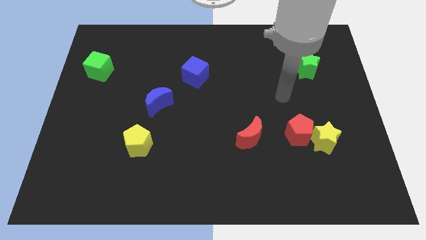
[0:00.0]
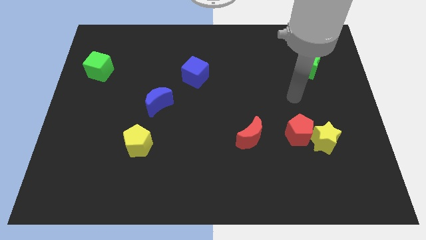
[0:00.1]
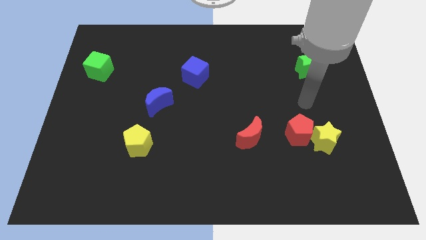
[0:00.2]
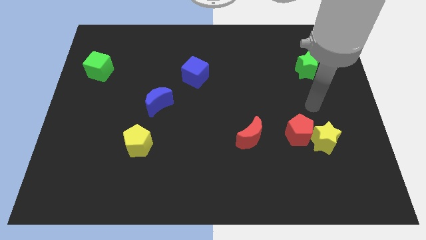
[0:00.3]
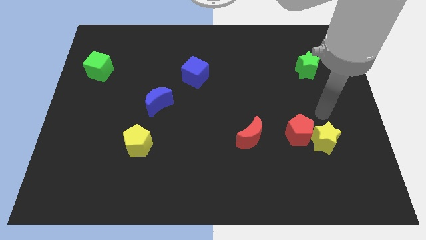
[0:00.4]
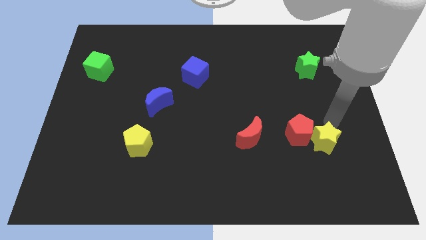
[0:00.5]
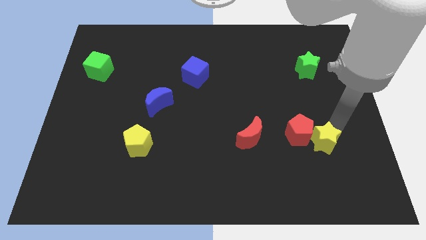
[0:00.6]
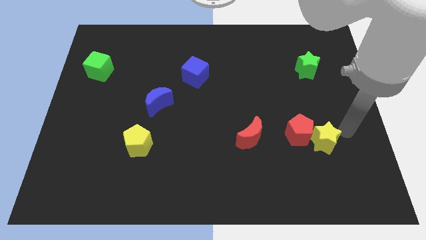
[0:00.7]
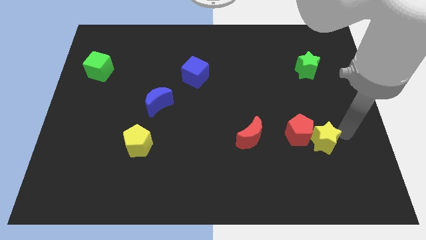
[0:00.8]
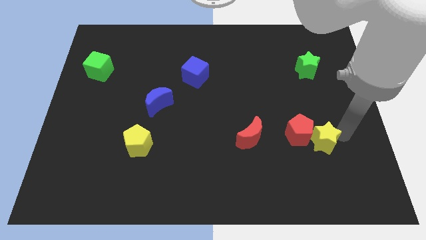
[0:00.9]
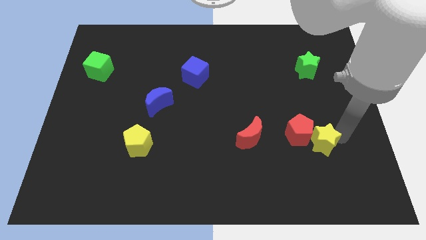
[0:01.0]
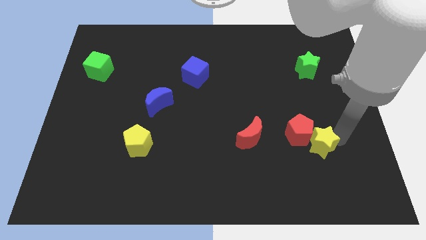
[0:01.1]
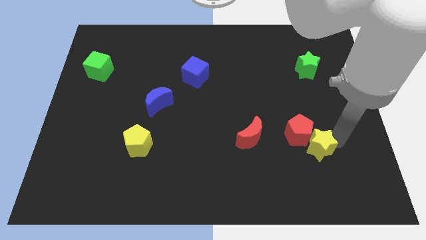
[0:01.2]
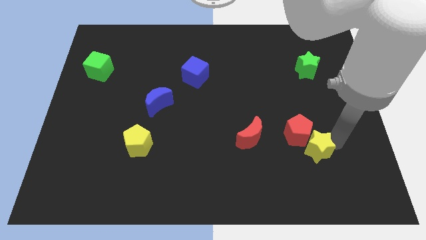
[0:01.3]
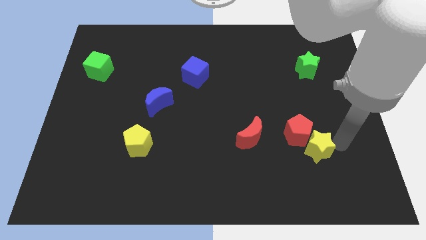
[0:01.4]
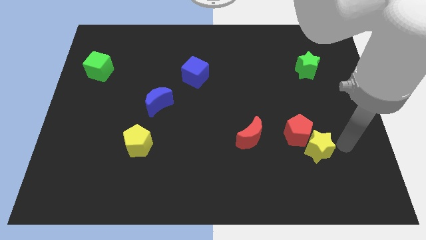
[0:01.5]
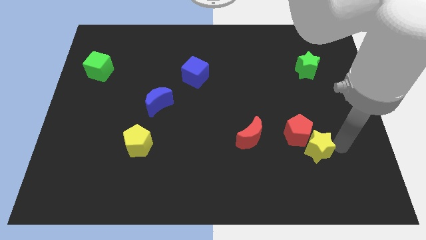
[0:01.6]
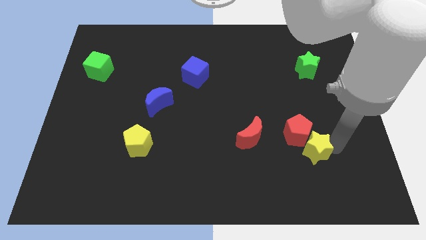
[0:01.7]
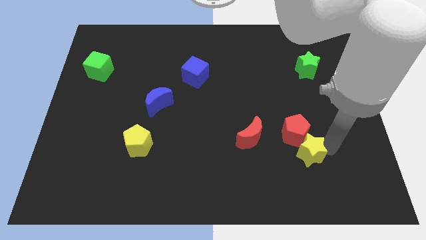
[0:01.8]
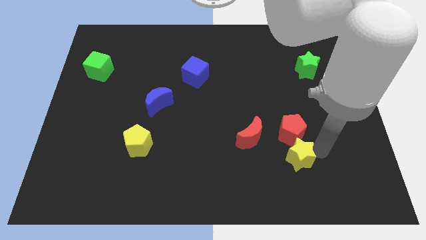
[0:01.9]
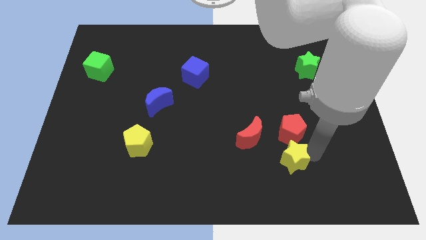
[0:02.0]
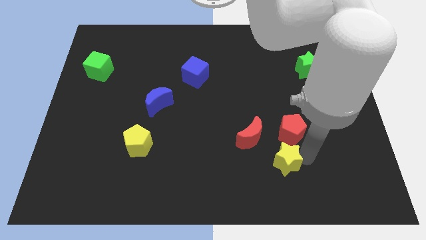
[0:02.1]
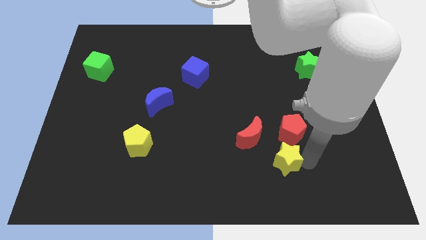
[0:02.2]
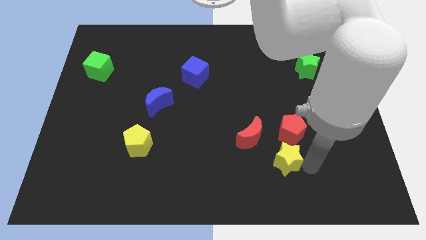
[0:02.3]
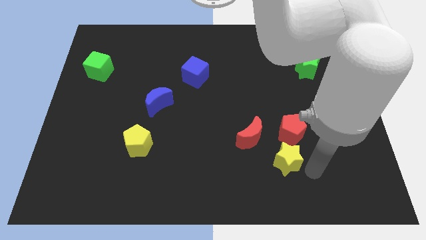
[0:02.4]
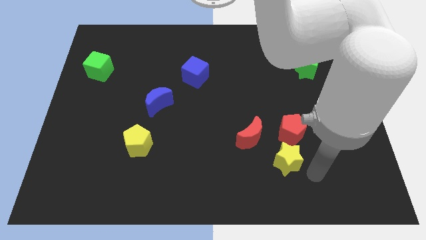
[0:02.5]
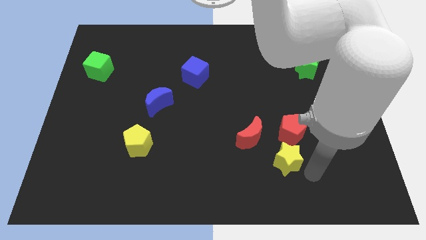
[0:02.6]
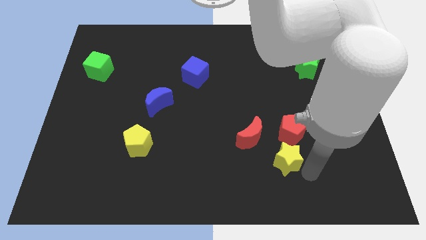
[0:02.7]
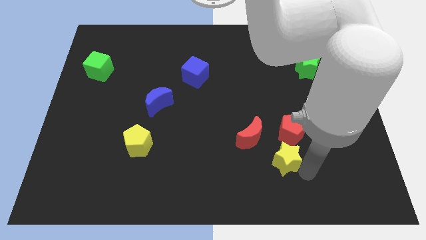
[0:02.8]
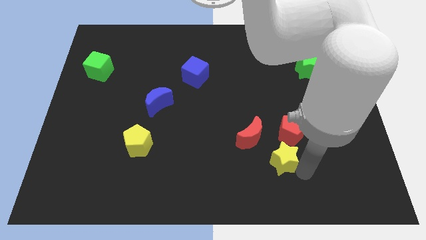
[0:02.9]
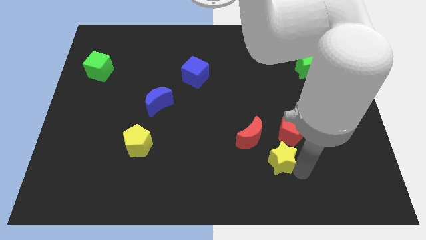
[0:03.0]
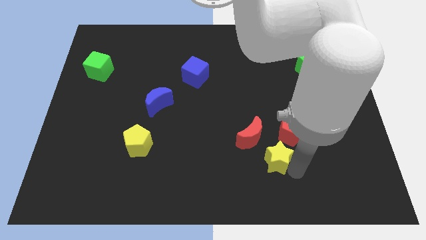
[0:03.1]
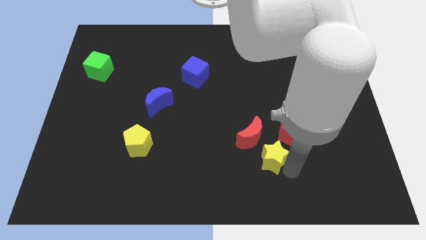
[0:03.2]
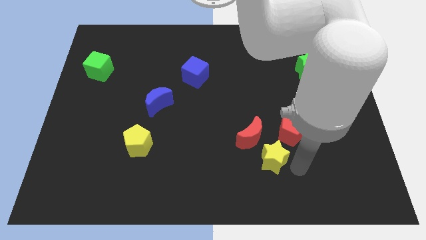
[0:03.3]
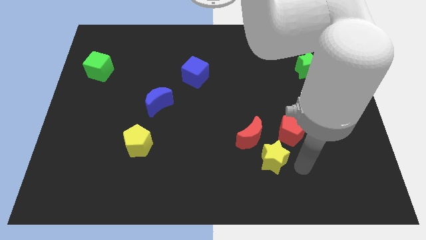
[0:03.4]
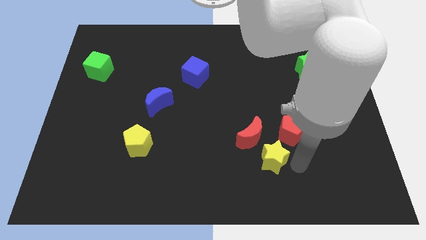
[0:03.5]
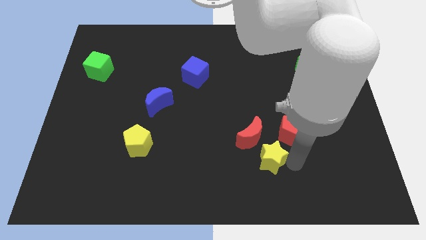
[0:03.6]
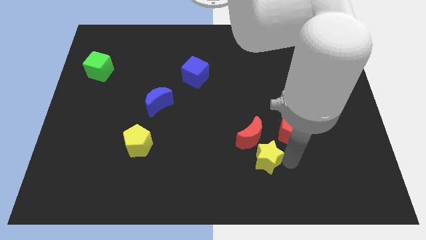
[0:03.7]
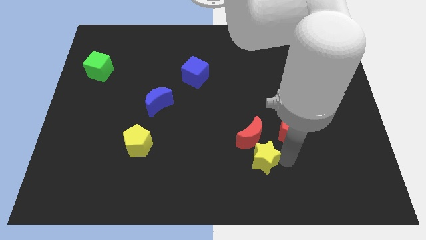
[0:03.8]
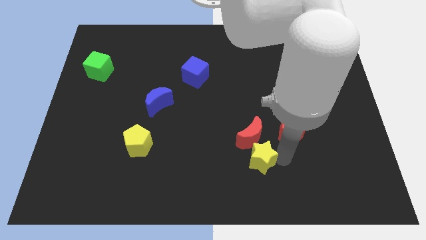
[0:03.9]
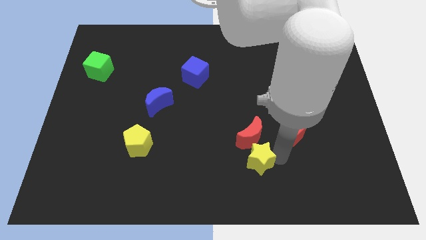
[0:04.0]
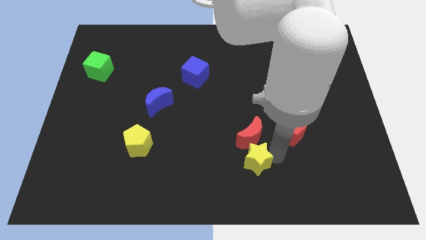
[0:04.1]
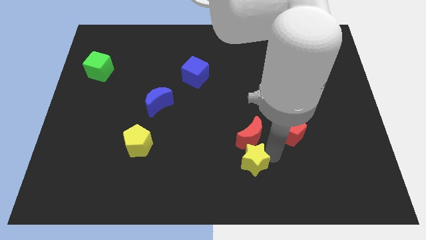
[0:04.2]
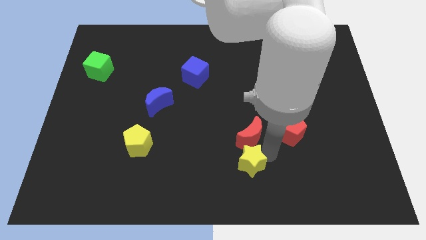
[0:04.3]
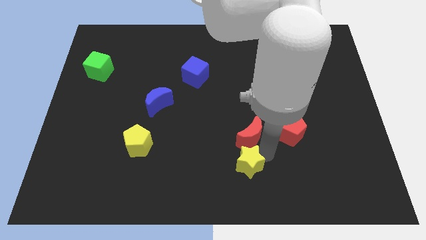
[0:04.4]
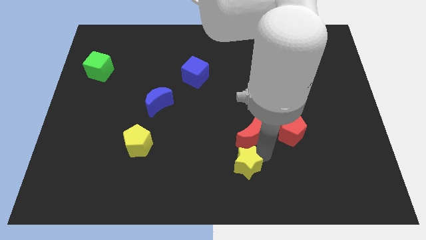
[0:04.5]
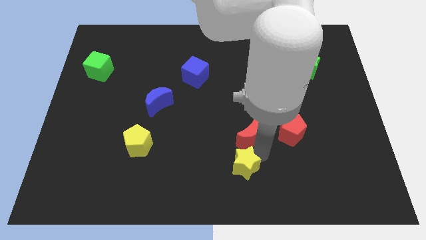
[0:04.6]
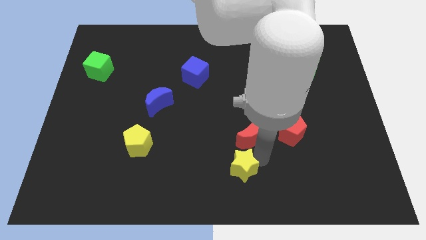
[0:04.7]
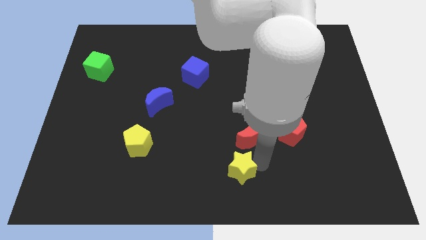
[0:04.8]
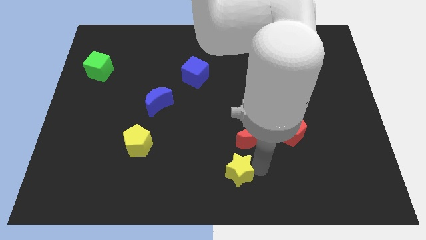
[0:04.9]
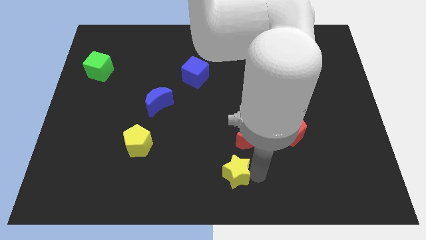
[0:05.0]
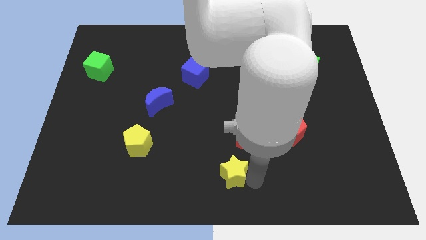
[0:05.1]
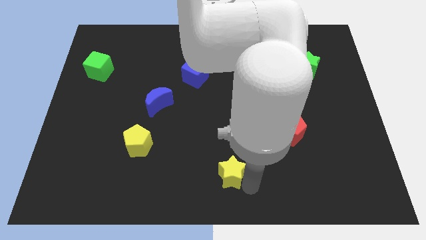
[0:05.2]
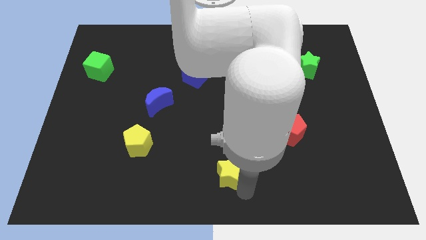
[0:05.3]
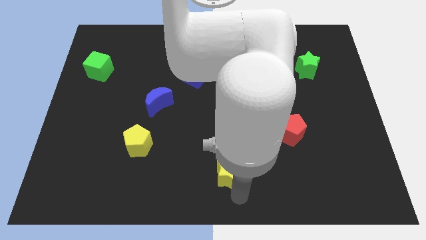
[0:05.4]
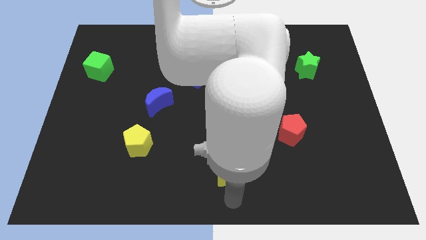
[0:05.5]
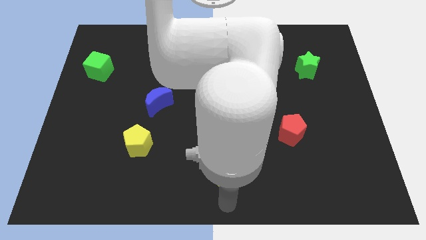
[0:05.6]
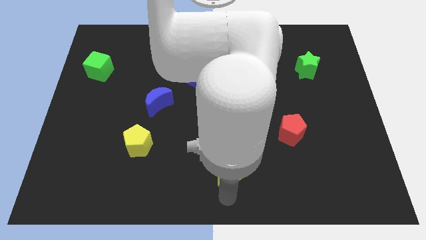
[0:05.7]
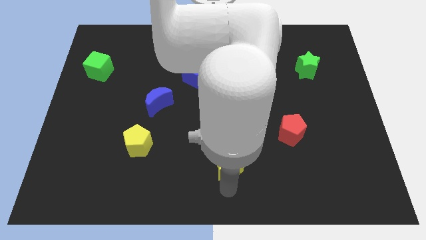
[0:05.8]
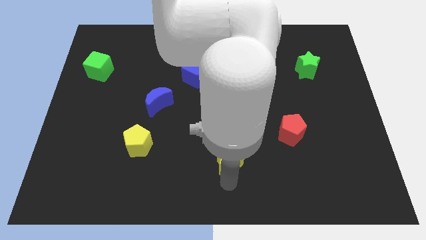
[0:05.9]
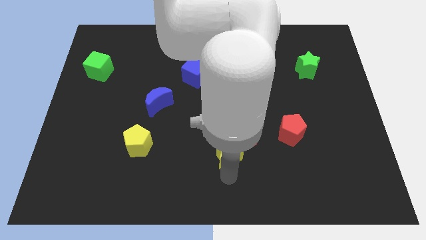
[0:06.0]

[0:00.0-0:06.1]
push the yellow star just left of the red moon

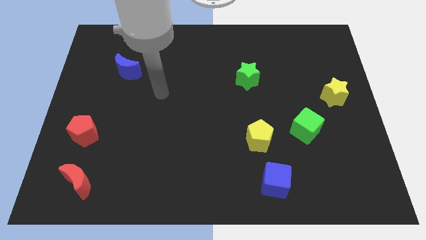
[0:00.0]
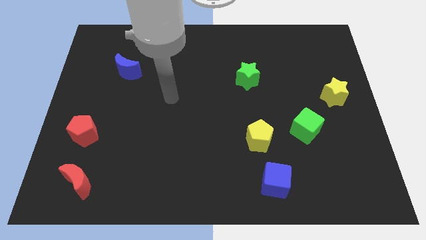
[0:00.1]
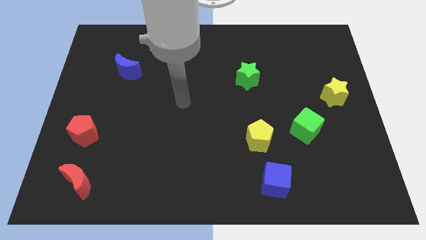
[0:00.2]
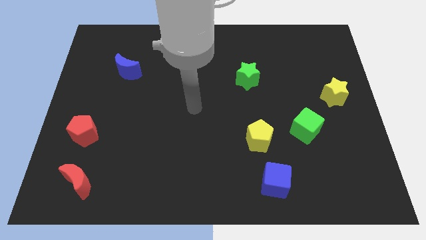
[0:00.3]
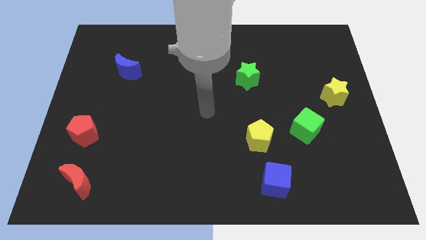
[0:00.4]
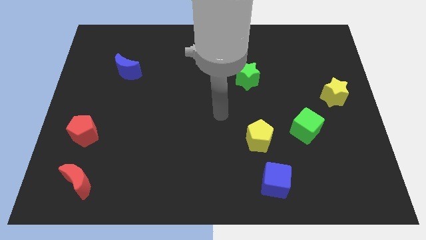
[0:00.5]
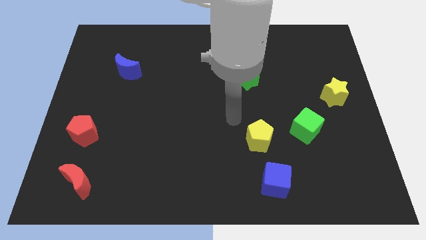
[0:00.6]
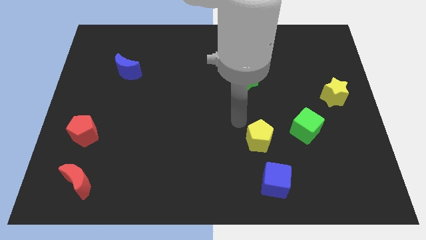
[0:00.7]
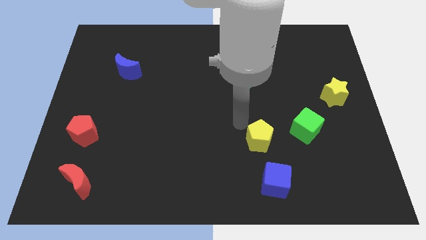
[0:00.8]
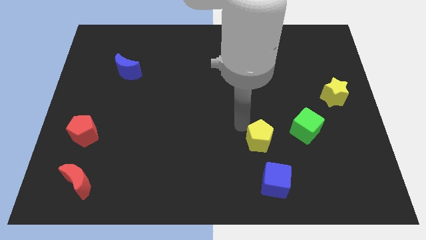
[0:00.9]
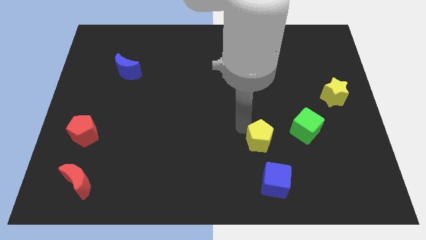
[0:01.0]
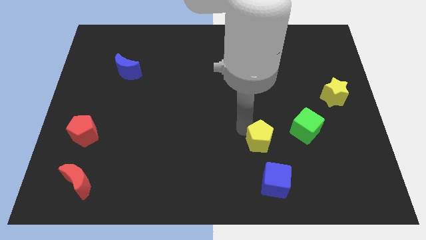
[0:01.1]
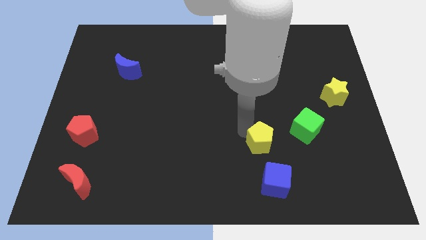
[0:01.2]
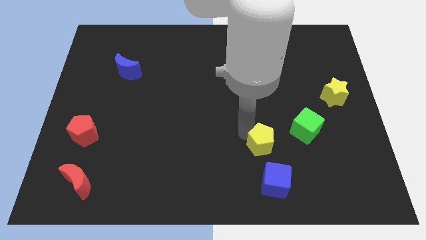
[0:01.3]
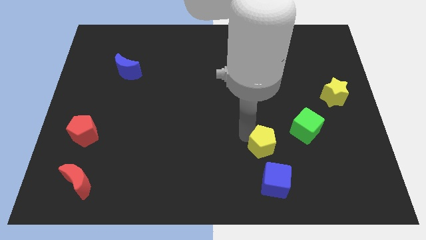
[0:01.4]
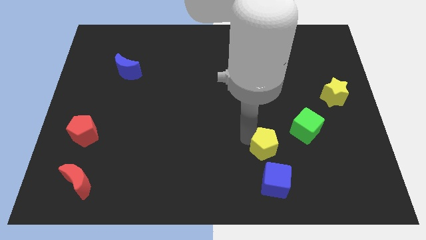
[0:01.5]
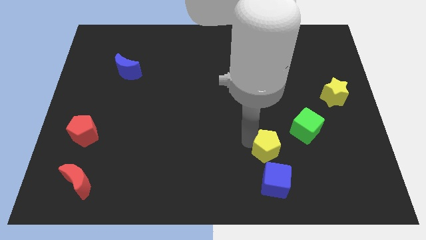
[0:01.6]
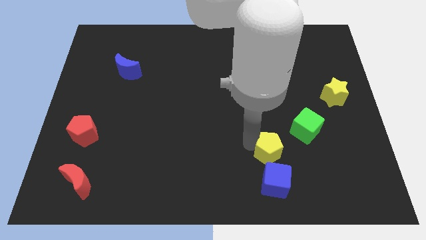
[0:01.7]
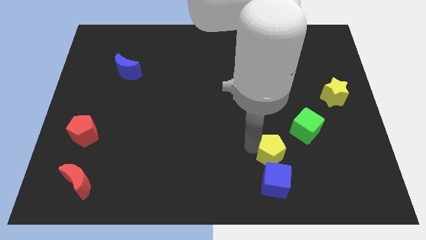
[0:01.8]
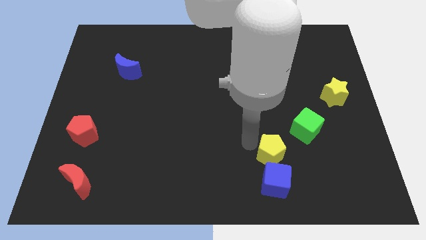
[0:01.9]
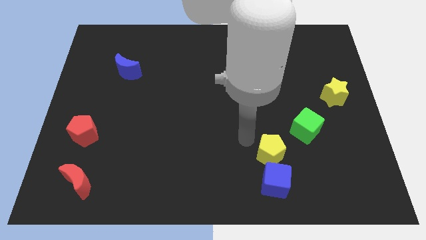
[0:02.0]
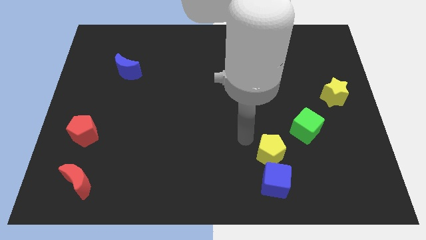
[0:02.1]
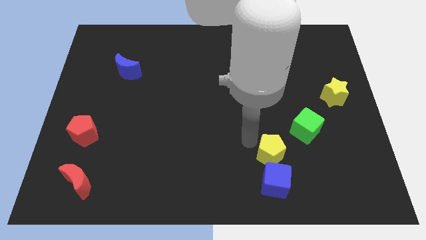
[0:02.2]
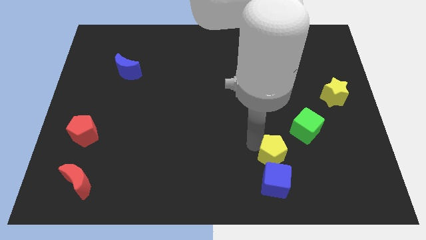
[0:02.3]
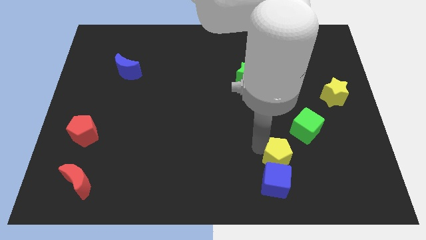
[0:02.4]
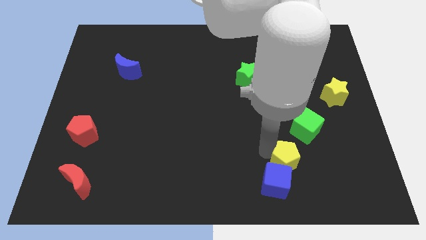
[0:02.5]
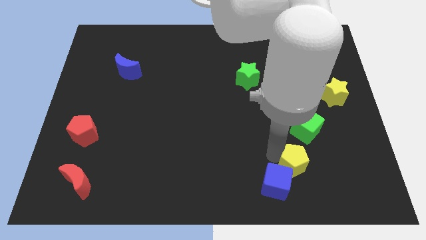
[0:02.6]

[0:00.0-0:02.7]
push the yellow pentagon right of the blue cube
